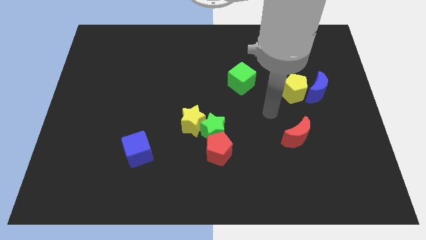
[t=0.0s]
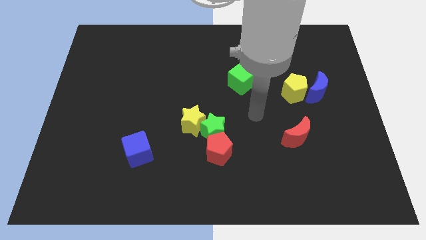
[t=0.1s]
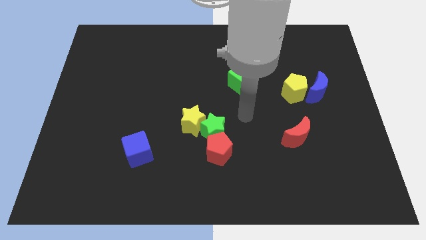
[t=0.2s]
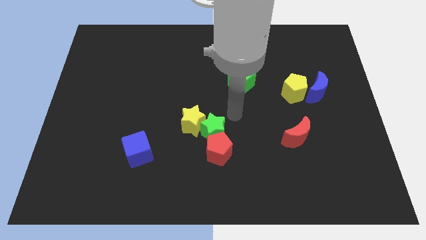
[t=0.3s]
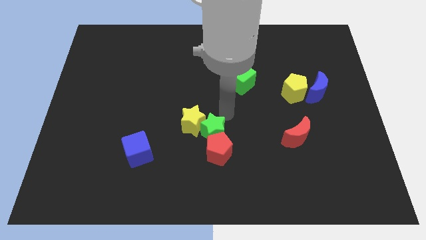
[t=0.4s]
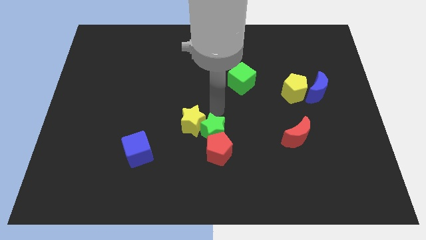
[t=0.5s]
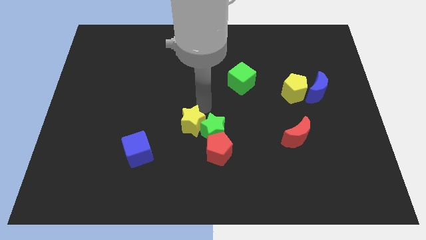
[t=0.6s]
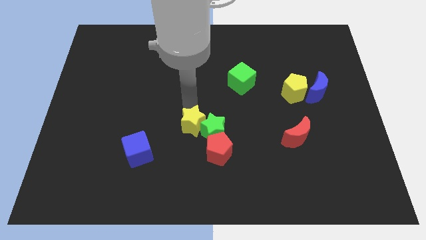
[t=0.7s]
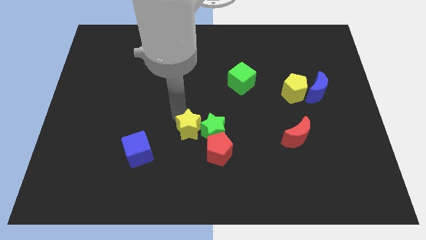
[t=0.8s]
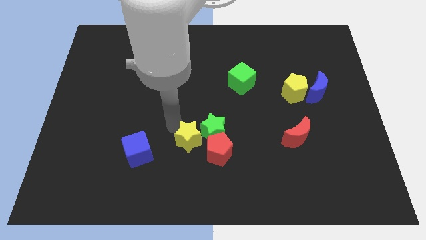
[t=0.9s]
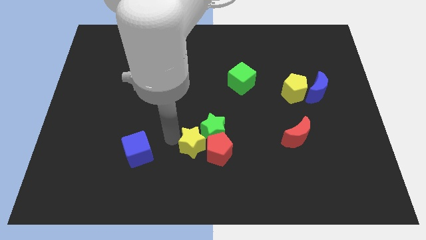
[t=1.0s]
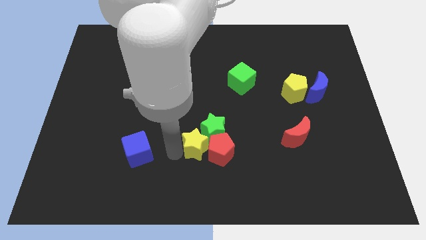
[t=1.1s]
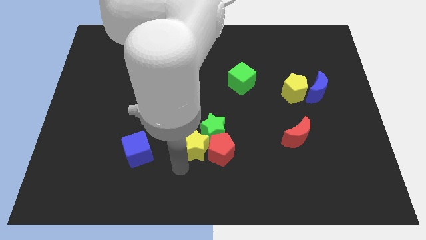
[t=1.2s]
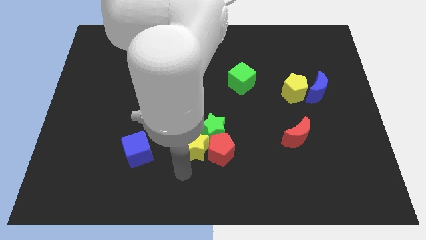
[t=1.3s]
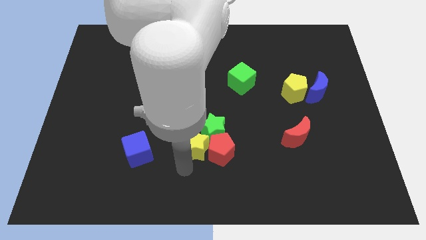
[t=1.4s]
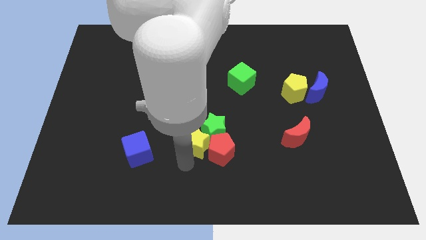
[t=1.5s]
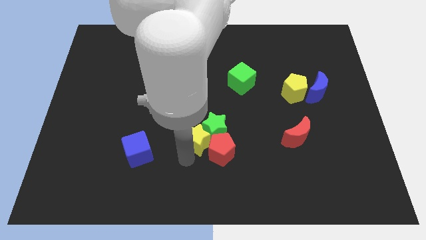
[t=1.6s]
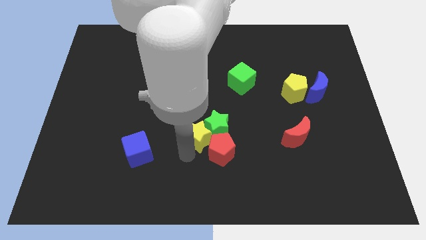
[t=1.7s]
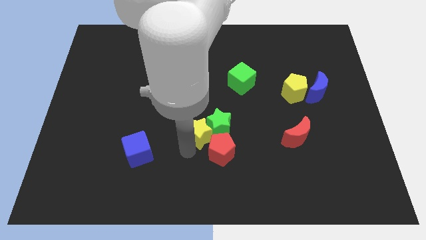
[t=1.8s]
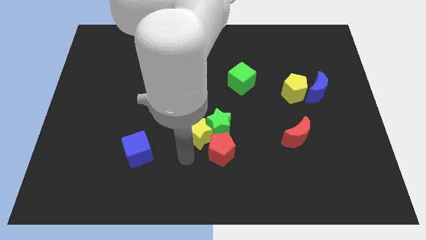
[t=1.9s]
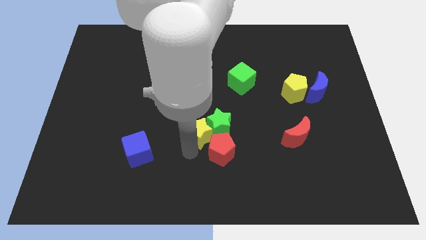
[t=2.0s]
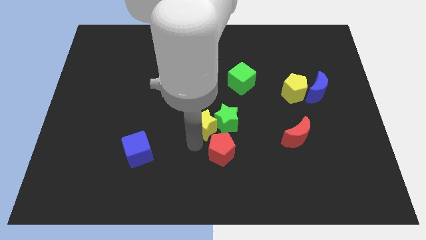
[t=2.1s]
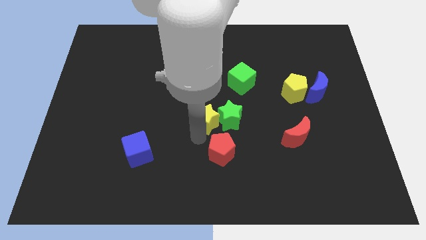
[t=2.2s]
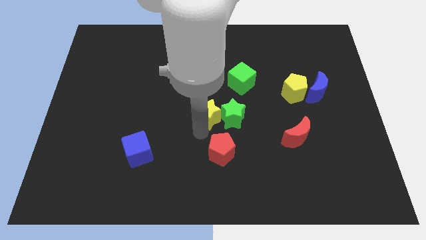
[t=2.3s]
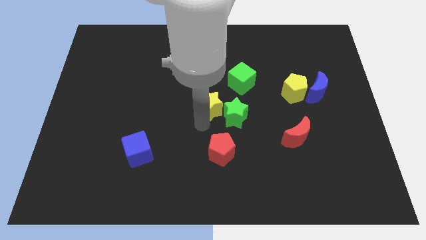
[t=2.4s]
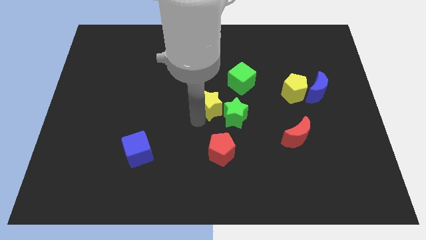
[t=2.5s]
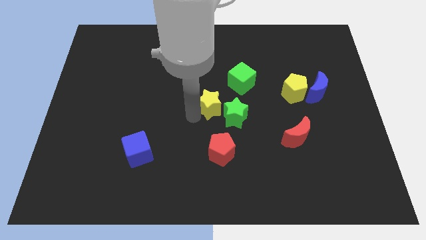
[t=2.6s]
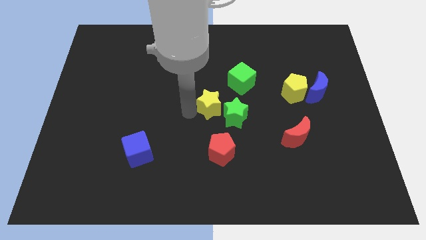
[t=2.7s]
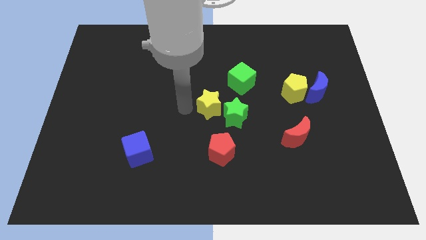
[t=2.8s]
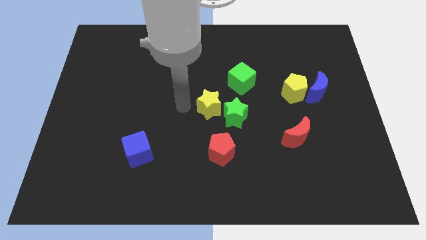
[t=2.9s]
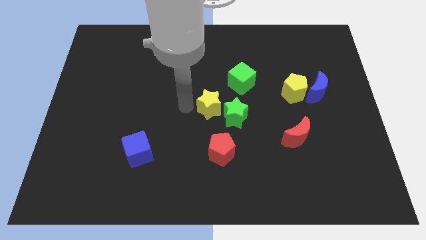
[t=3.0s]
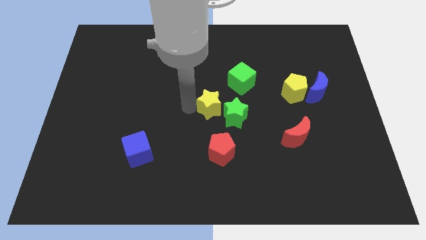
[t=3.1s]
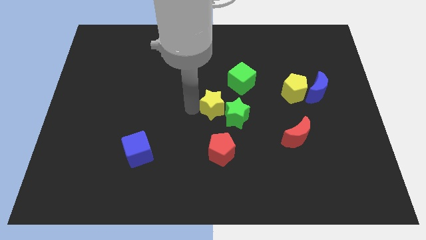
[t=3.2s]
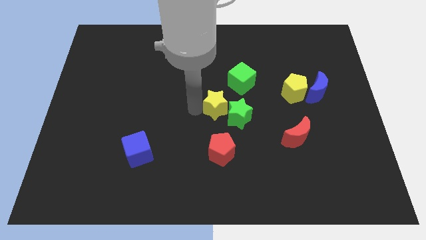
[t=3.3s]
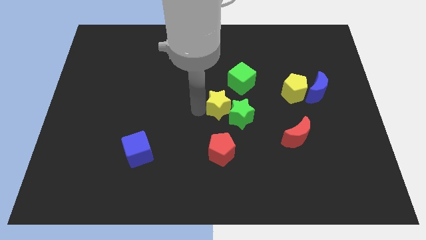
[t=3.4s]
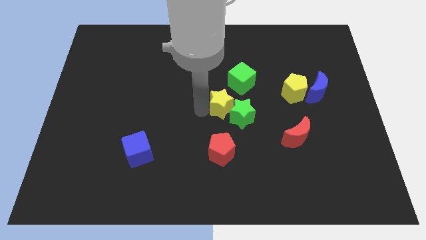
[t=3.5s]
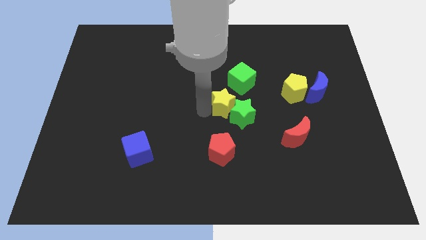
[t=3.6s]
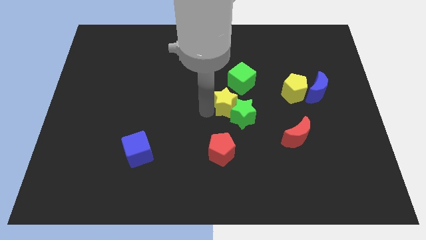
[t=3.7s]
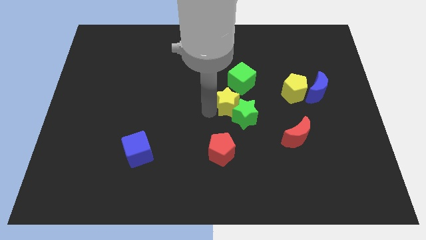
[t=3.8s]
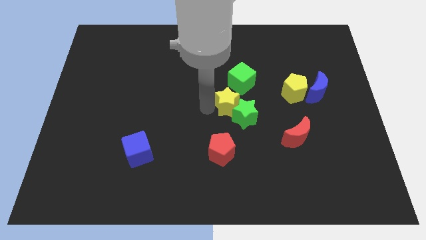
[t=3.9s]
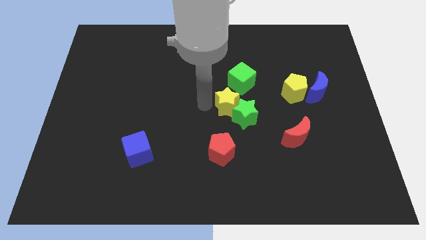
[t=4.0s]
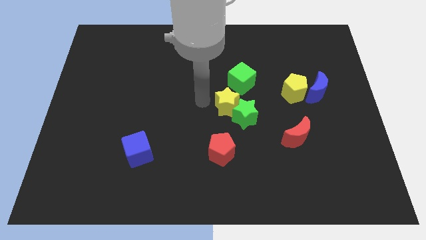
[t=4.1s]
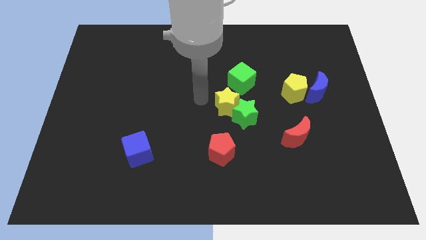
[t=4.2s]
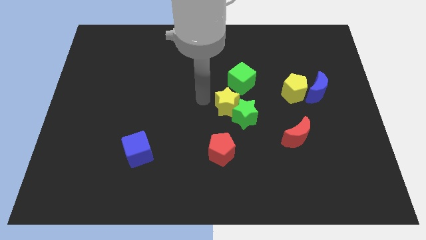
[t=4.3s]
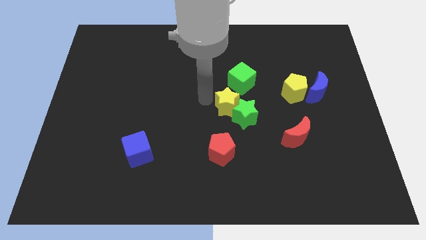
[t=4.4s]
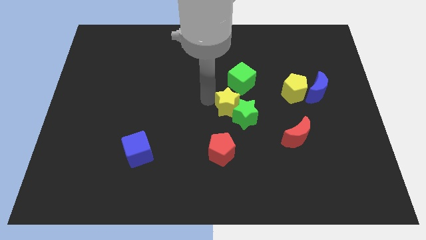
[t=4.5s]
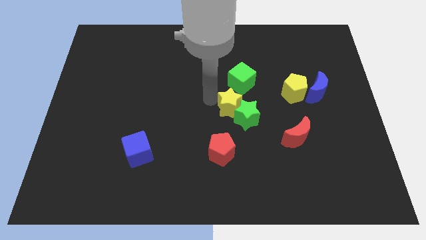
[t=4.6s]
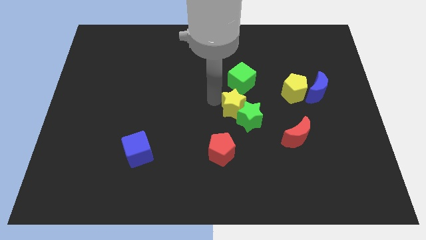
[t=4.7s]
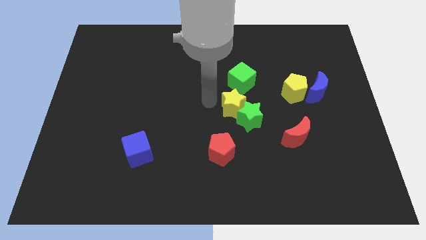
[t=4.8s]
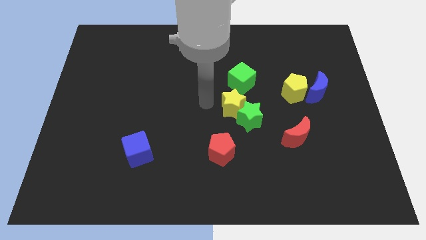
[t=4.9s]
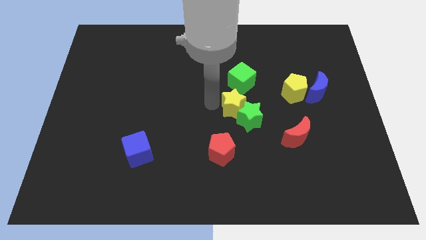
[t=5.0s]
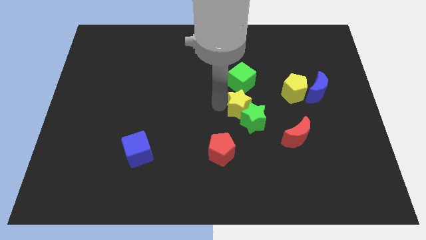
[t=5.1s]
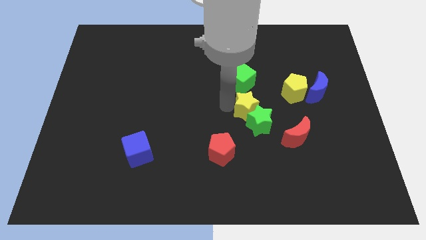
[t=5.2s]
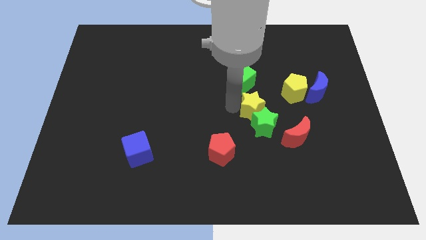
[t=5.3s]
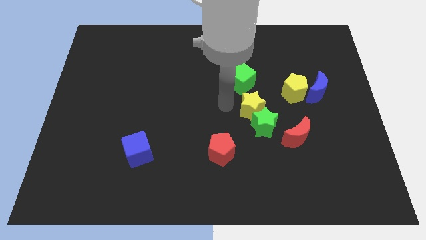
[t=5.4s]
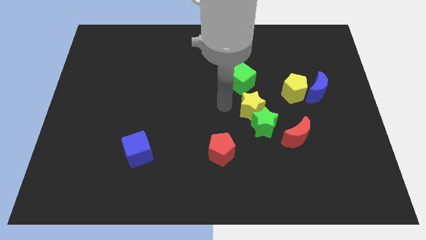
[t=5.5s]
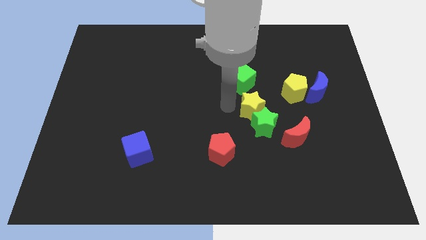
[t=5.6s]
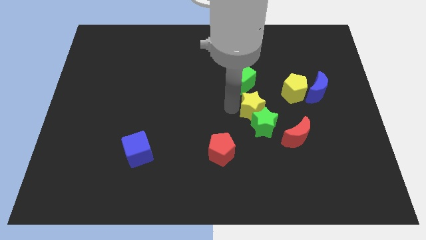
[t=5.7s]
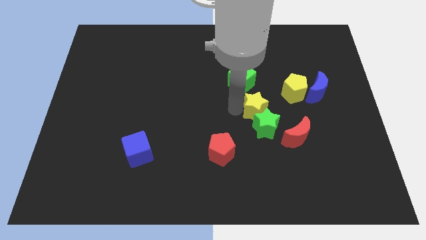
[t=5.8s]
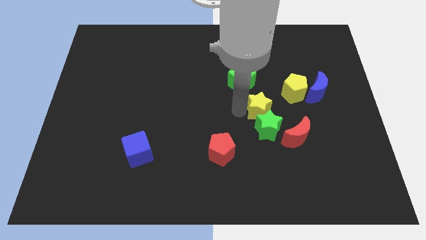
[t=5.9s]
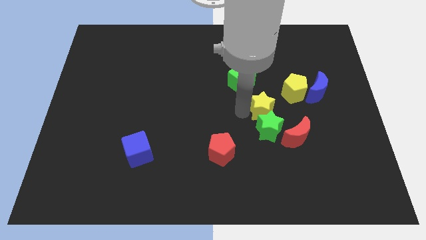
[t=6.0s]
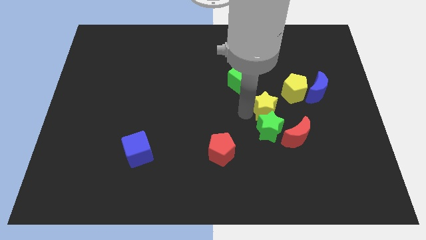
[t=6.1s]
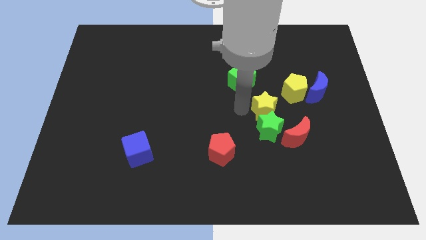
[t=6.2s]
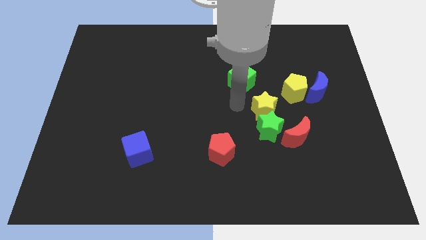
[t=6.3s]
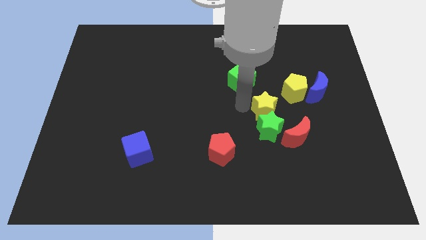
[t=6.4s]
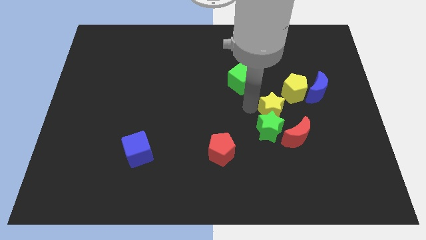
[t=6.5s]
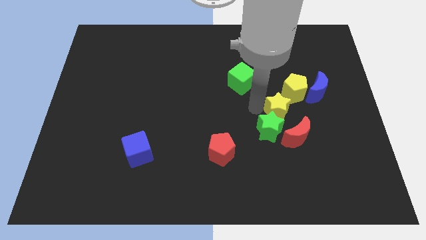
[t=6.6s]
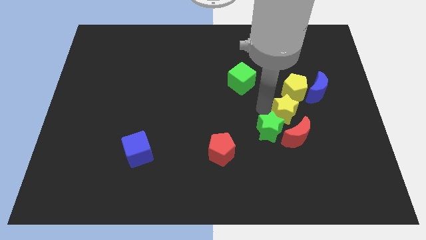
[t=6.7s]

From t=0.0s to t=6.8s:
slide the yellow star to the right

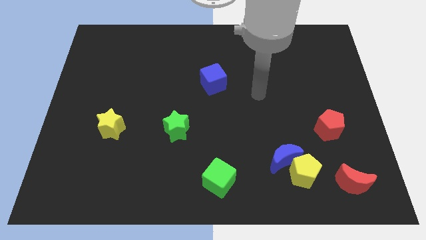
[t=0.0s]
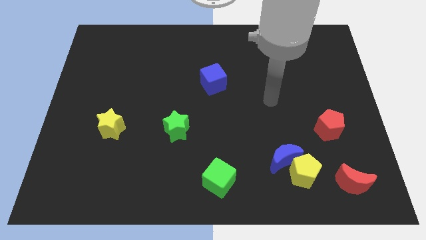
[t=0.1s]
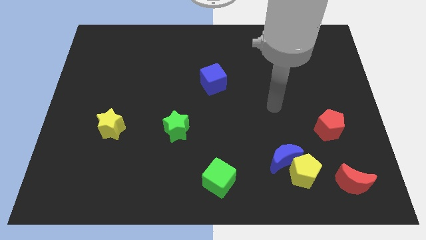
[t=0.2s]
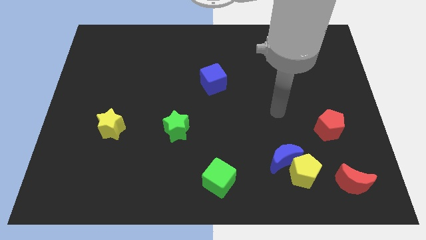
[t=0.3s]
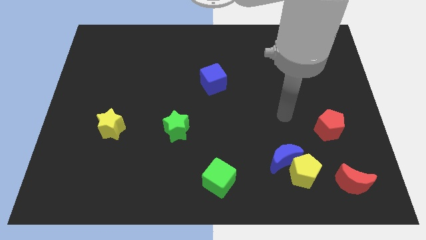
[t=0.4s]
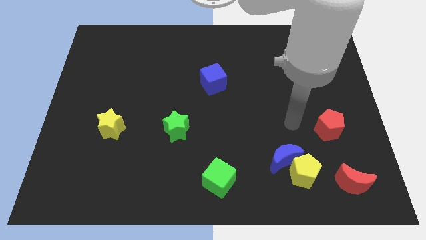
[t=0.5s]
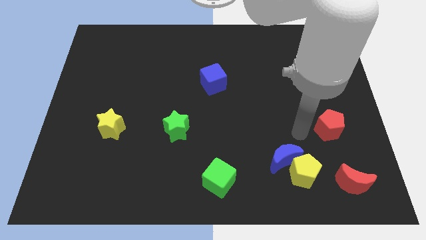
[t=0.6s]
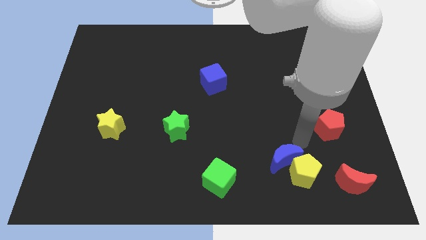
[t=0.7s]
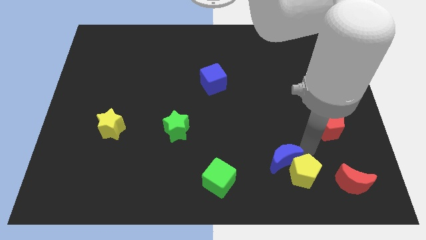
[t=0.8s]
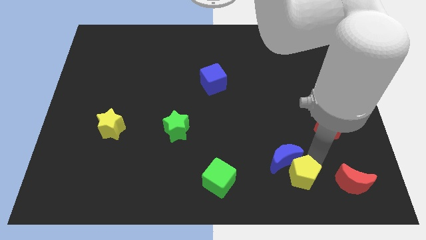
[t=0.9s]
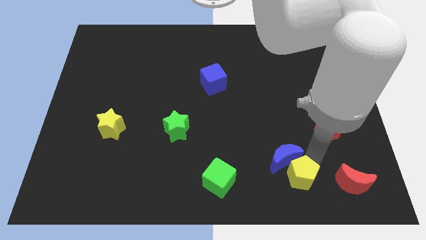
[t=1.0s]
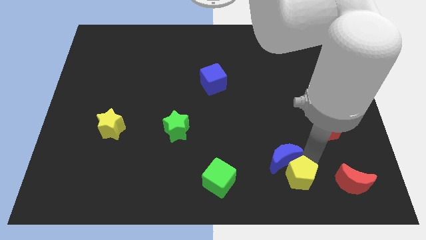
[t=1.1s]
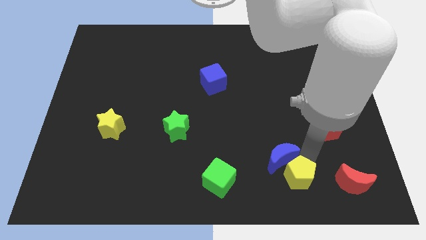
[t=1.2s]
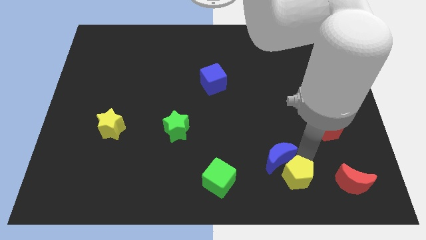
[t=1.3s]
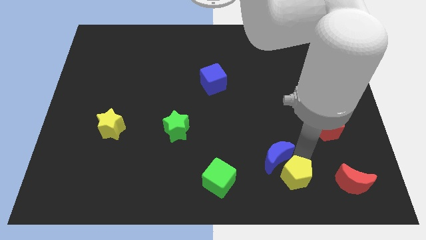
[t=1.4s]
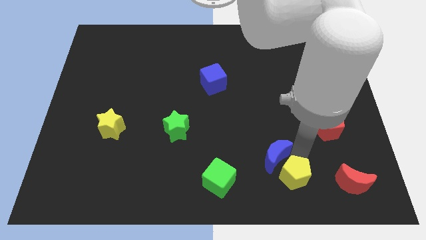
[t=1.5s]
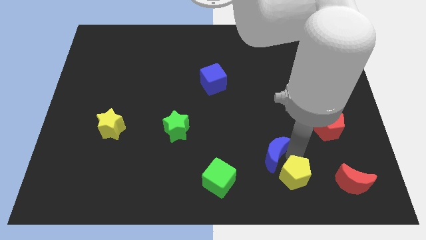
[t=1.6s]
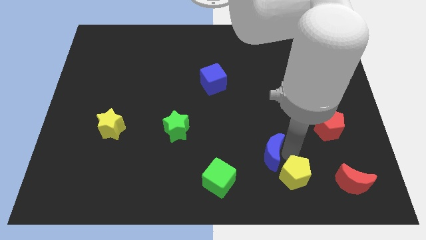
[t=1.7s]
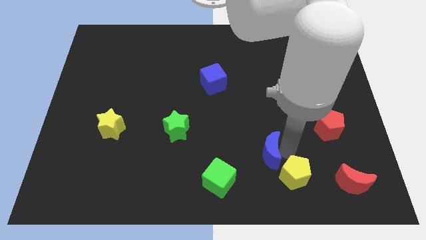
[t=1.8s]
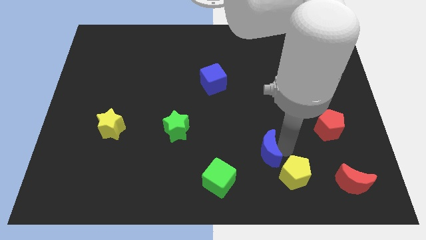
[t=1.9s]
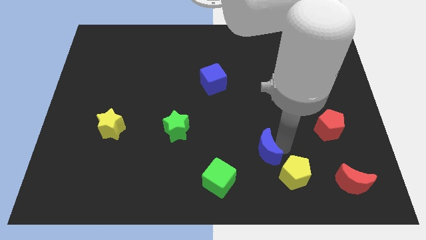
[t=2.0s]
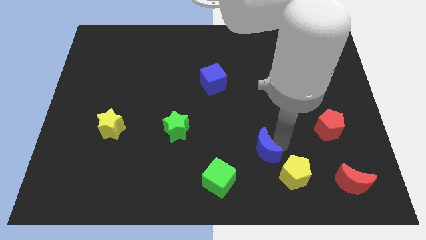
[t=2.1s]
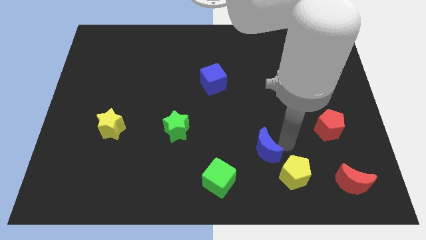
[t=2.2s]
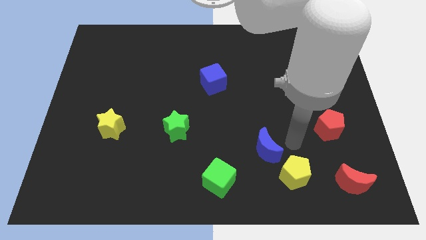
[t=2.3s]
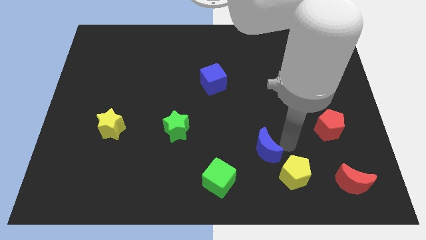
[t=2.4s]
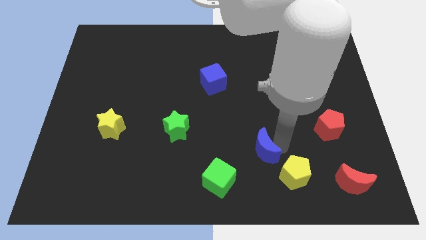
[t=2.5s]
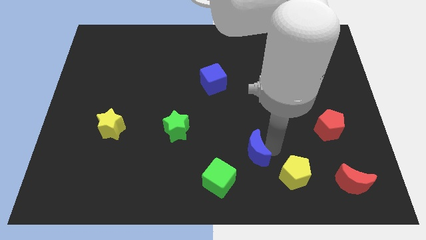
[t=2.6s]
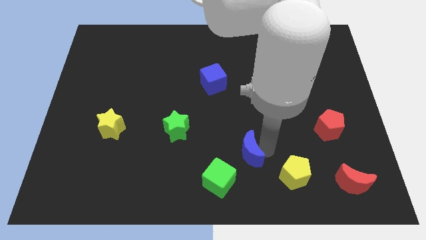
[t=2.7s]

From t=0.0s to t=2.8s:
slide the blue moon to the left a bit
